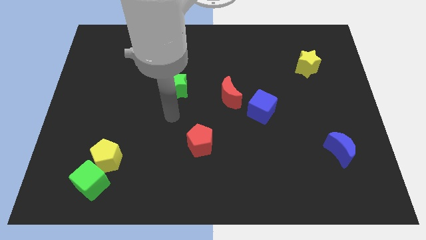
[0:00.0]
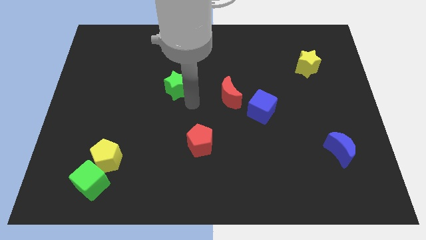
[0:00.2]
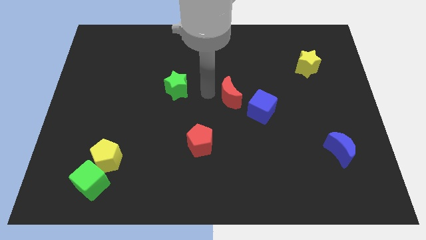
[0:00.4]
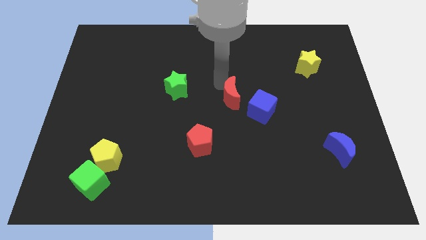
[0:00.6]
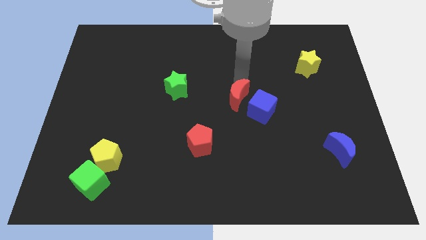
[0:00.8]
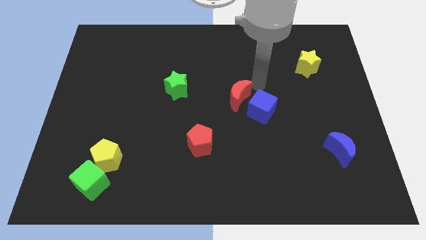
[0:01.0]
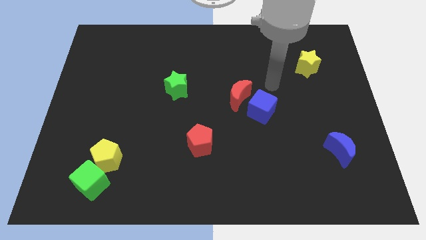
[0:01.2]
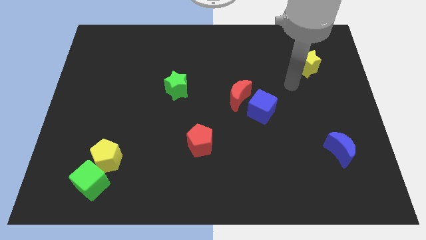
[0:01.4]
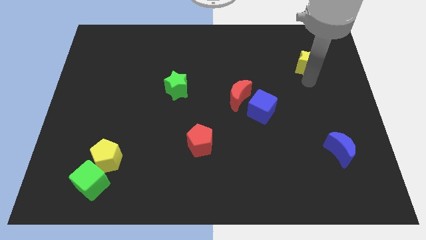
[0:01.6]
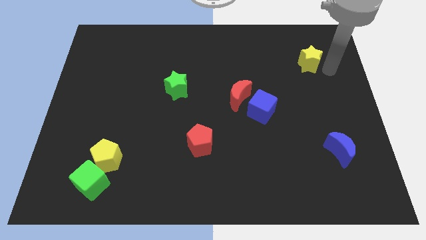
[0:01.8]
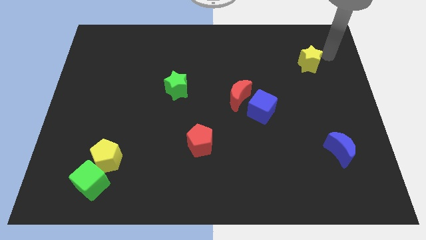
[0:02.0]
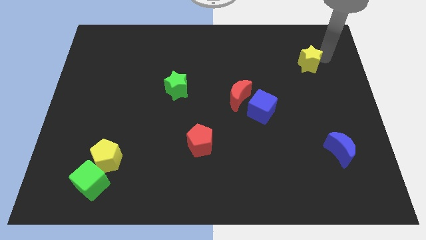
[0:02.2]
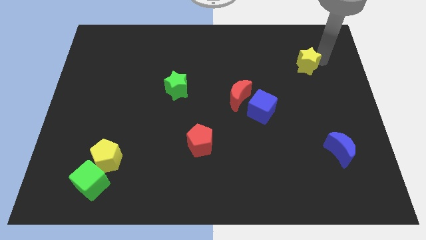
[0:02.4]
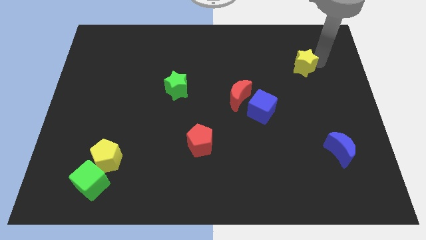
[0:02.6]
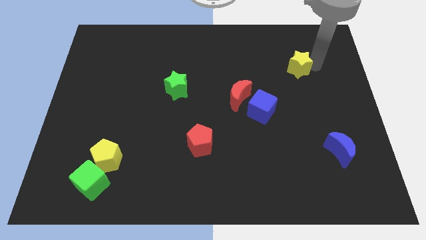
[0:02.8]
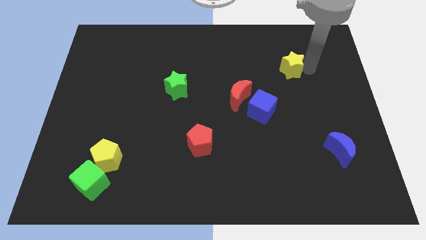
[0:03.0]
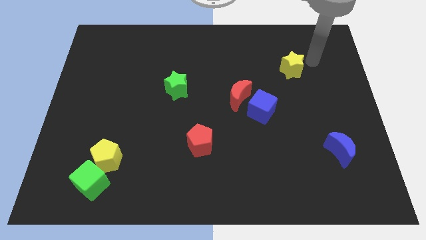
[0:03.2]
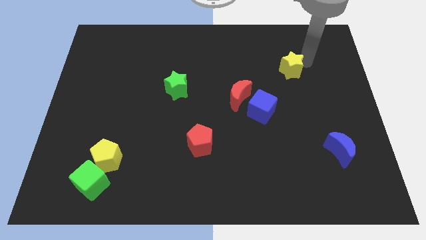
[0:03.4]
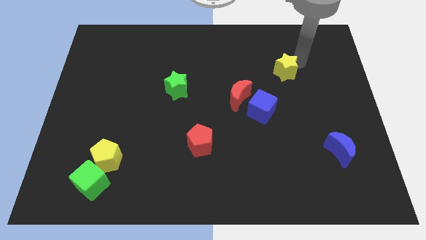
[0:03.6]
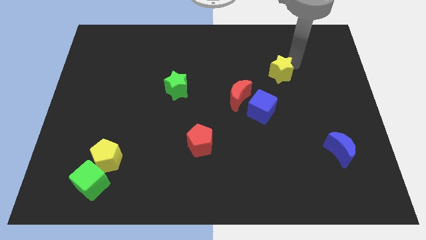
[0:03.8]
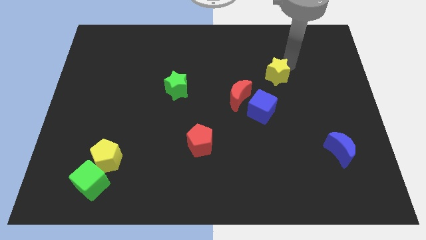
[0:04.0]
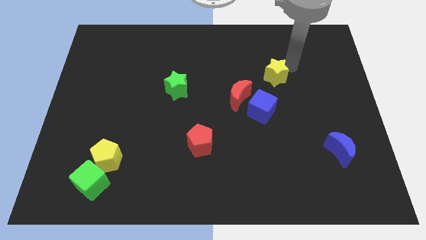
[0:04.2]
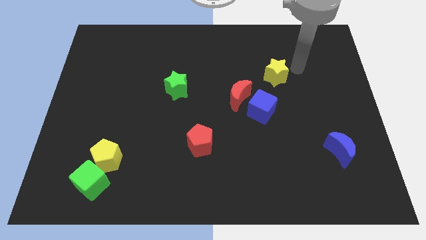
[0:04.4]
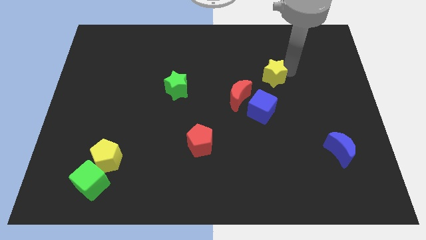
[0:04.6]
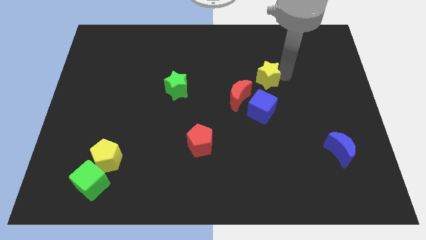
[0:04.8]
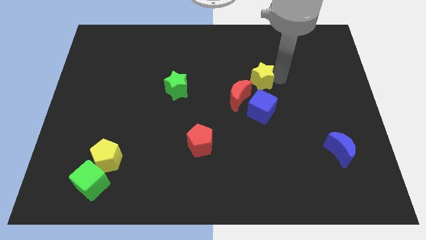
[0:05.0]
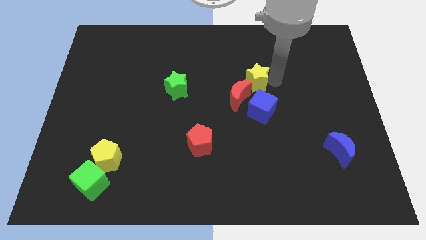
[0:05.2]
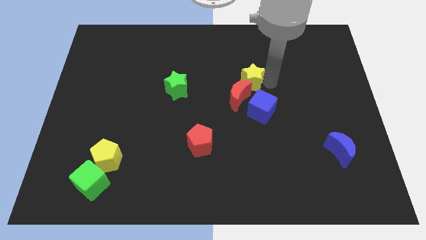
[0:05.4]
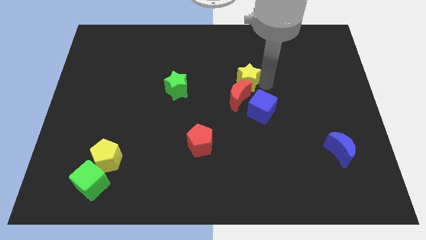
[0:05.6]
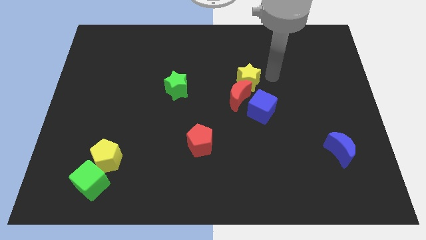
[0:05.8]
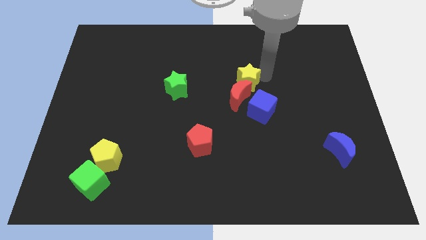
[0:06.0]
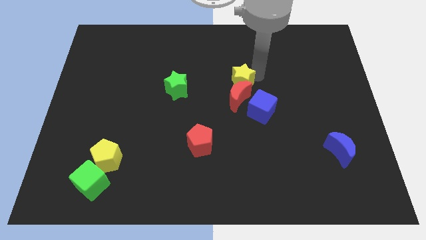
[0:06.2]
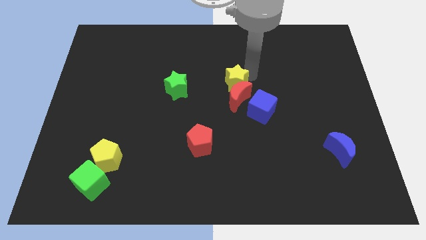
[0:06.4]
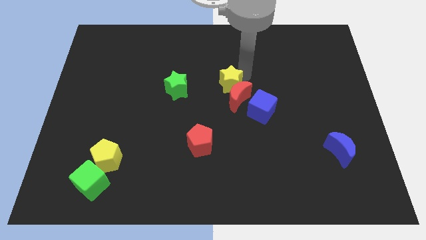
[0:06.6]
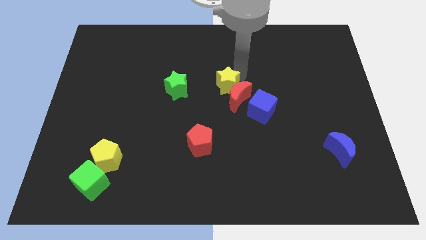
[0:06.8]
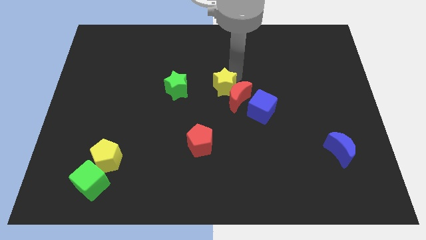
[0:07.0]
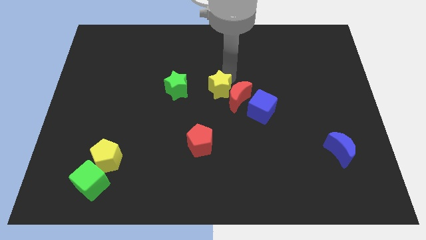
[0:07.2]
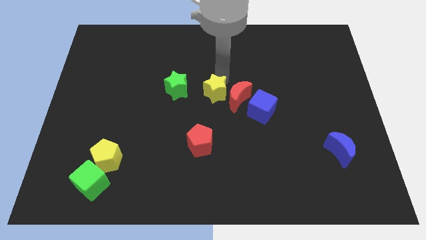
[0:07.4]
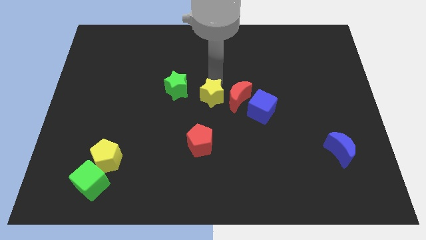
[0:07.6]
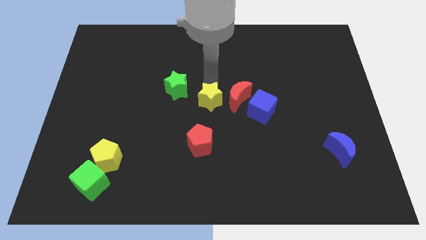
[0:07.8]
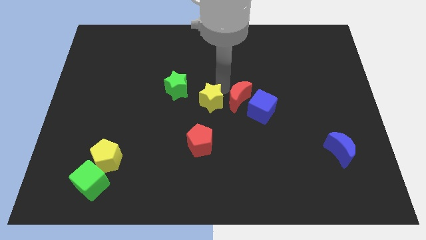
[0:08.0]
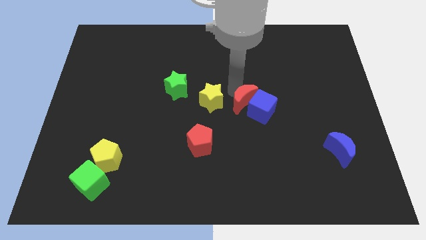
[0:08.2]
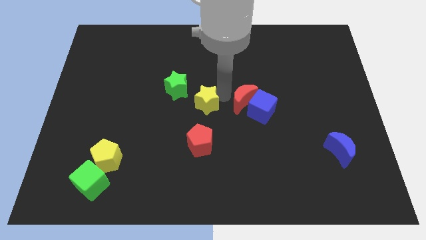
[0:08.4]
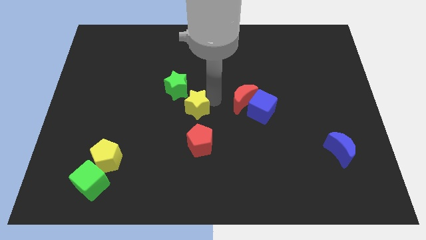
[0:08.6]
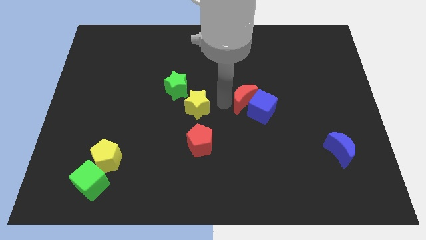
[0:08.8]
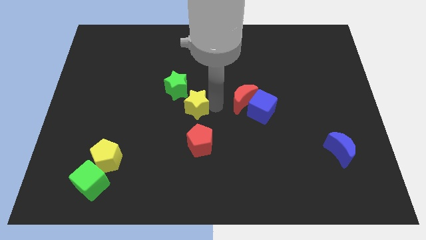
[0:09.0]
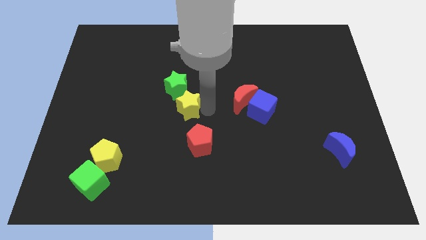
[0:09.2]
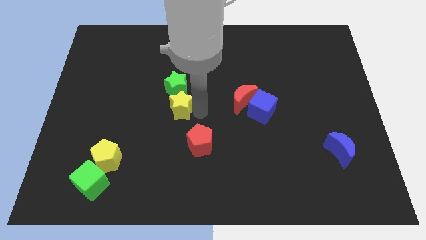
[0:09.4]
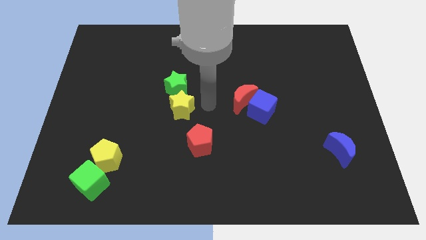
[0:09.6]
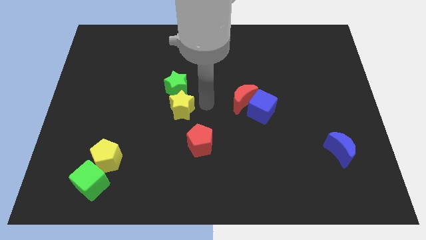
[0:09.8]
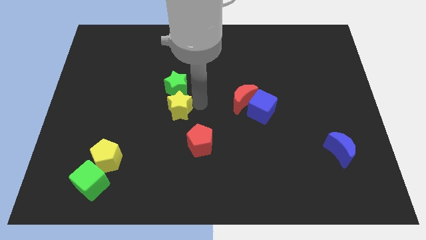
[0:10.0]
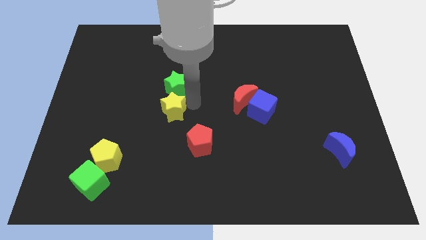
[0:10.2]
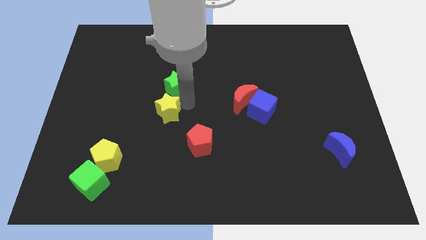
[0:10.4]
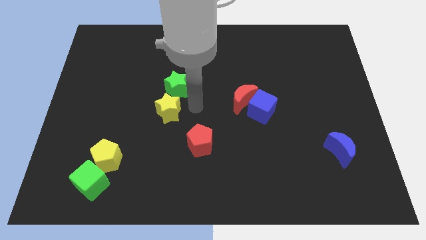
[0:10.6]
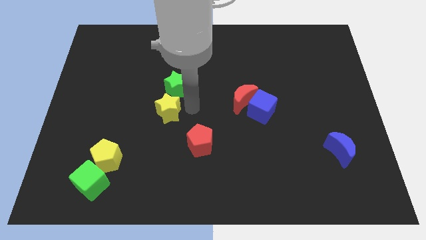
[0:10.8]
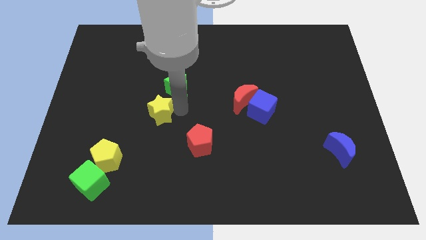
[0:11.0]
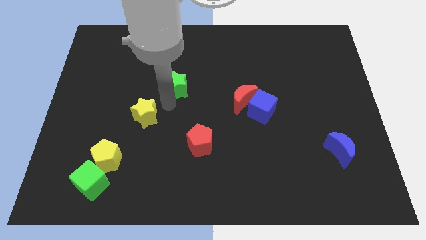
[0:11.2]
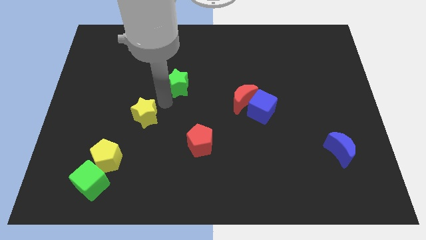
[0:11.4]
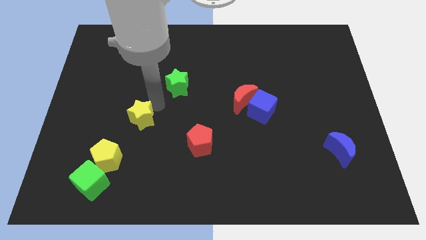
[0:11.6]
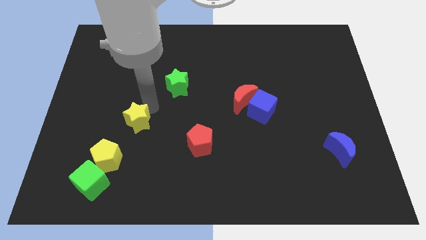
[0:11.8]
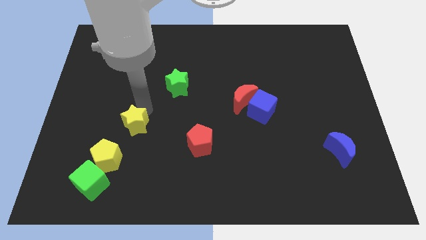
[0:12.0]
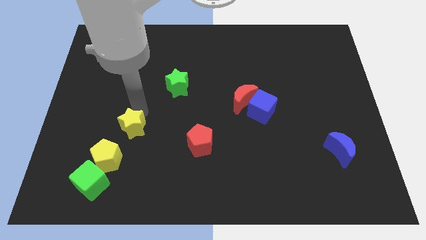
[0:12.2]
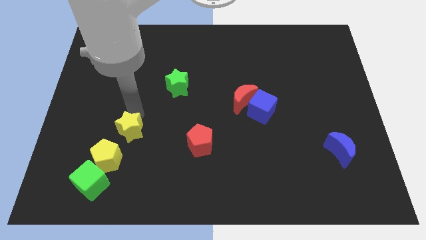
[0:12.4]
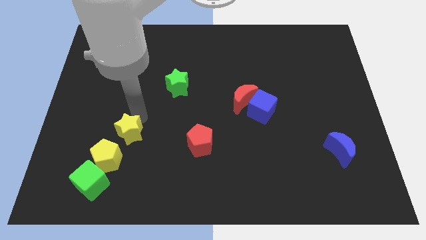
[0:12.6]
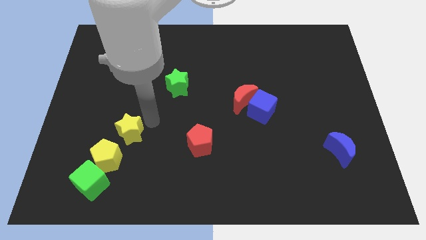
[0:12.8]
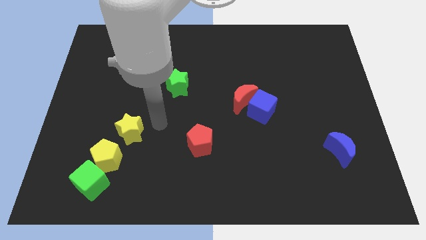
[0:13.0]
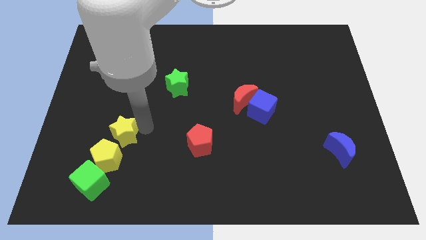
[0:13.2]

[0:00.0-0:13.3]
slide the yellow star above the green cube
